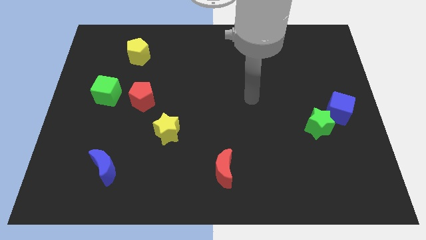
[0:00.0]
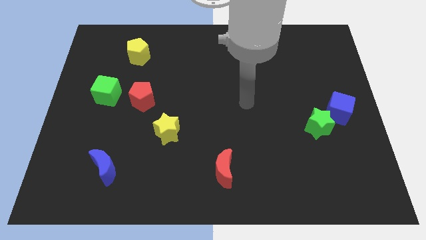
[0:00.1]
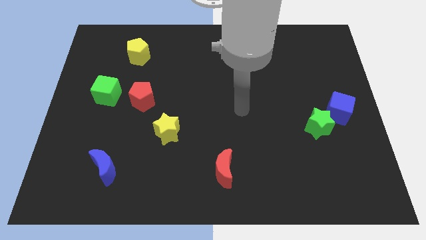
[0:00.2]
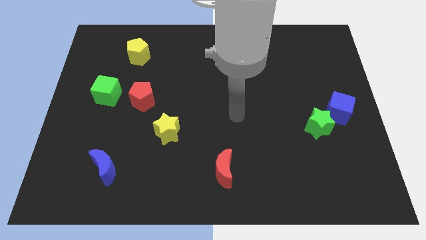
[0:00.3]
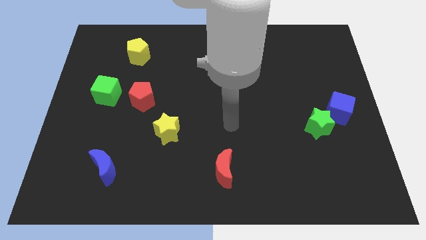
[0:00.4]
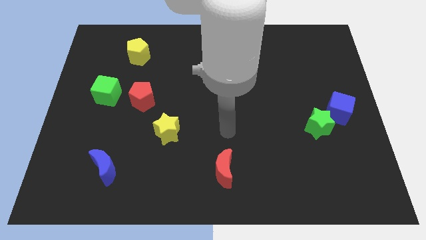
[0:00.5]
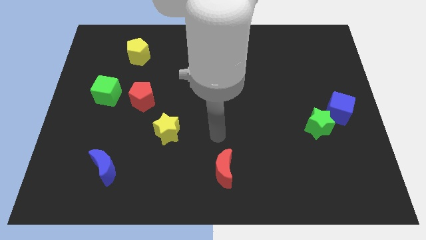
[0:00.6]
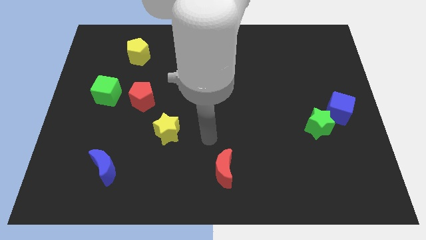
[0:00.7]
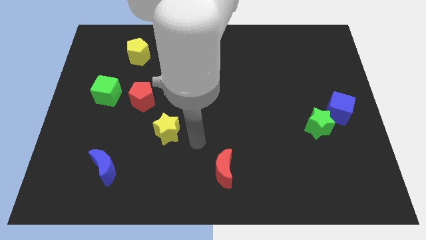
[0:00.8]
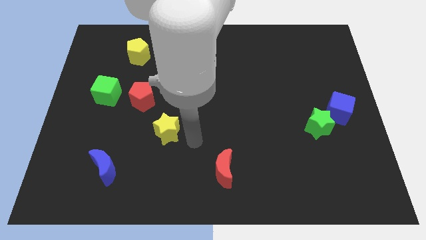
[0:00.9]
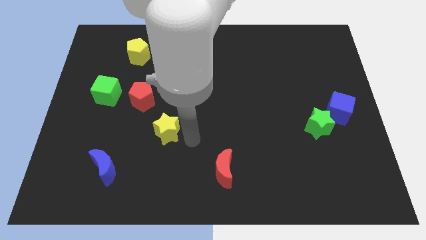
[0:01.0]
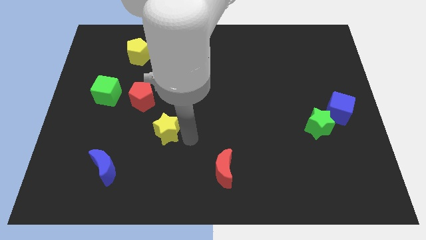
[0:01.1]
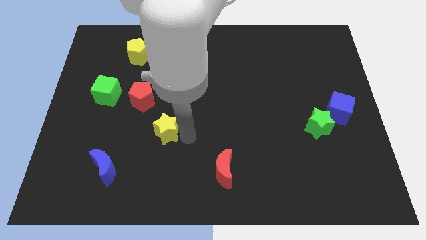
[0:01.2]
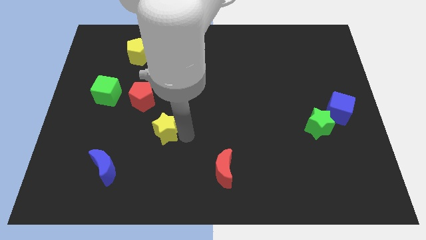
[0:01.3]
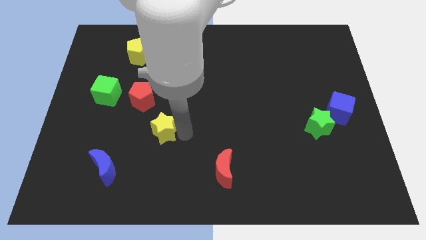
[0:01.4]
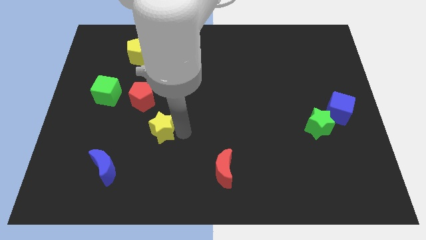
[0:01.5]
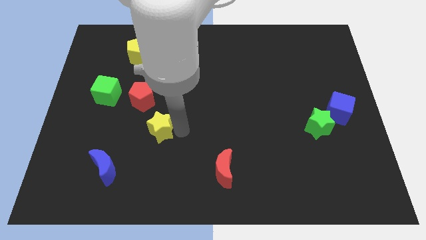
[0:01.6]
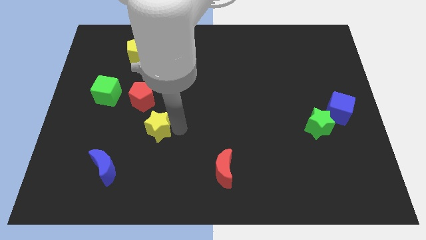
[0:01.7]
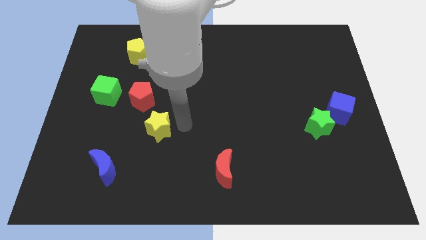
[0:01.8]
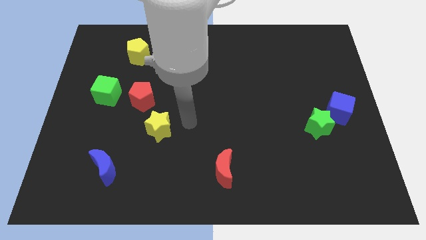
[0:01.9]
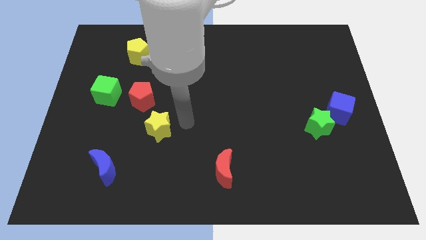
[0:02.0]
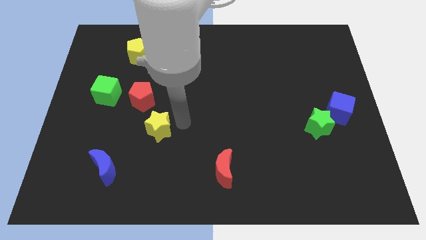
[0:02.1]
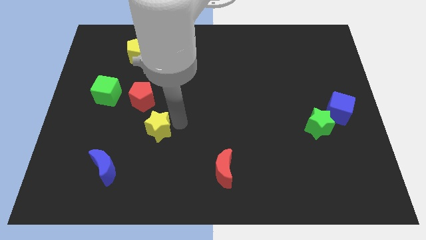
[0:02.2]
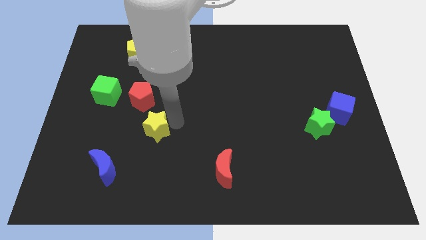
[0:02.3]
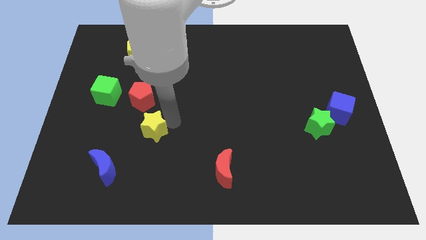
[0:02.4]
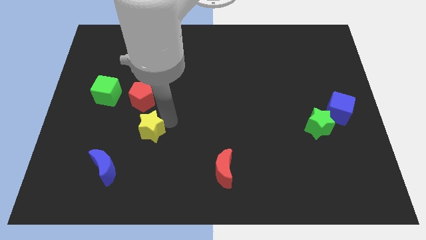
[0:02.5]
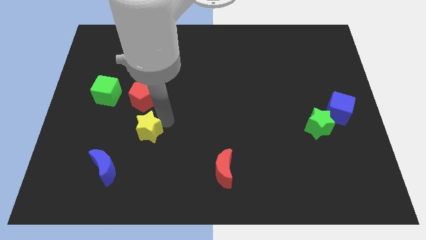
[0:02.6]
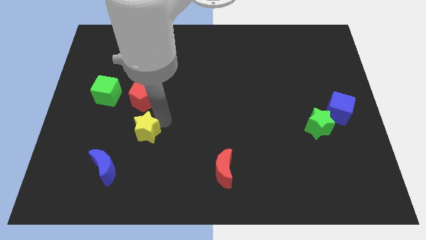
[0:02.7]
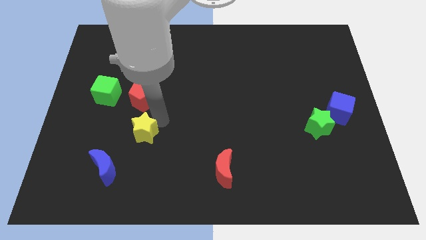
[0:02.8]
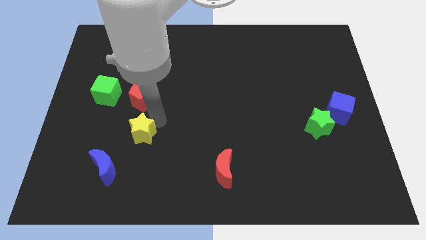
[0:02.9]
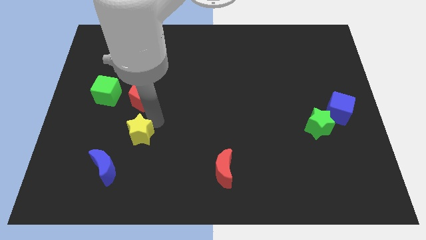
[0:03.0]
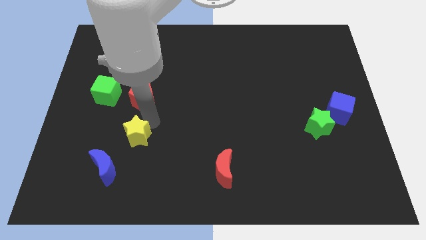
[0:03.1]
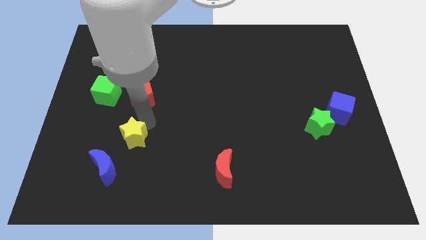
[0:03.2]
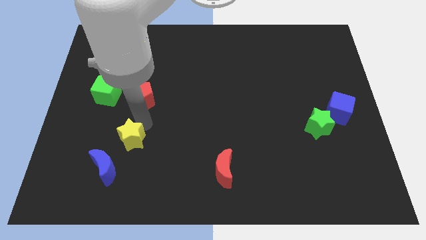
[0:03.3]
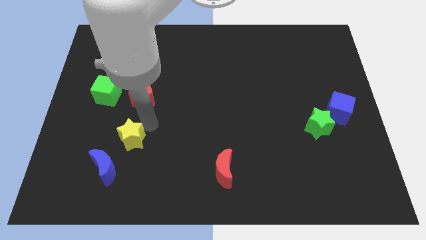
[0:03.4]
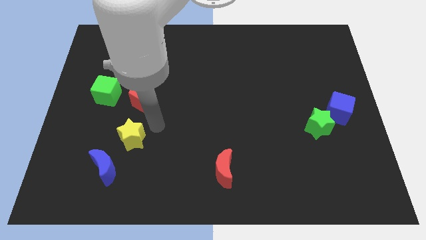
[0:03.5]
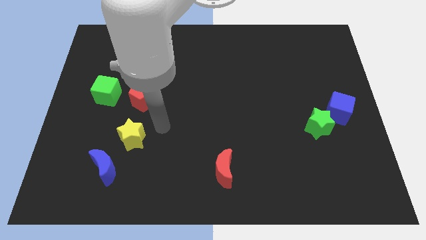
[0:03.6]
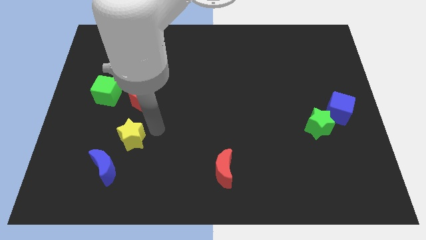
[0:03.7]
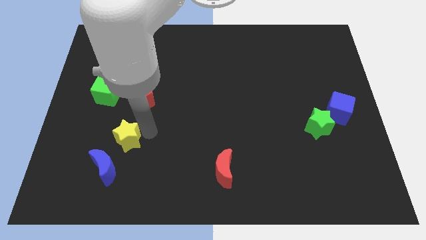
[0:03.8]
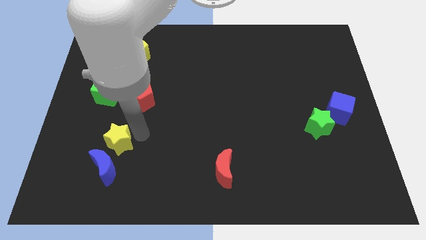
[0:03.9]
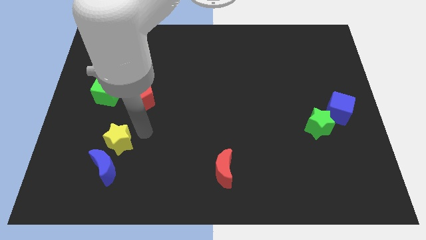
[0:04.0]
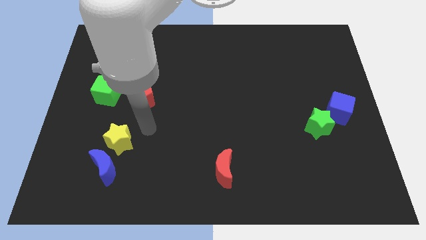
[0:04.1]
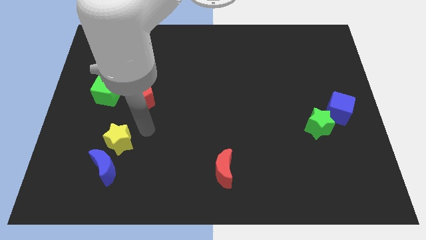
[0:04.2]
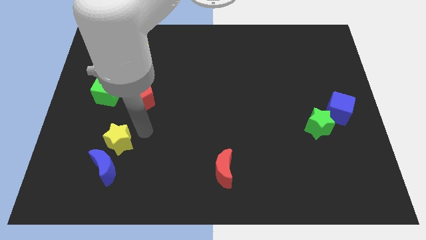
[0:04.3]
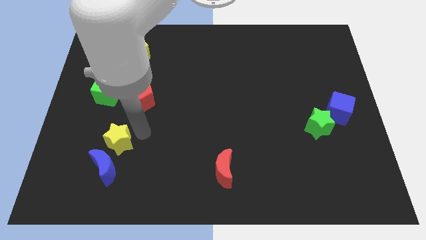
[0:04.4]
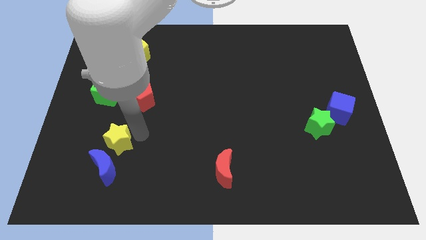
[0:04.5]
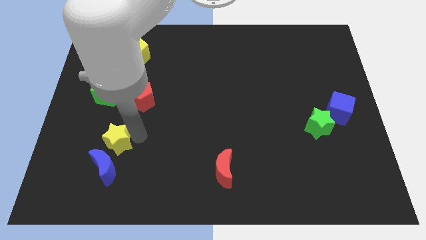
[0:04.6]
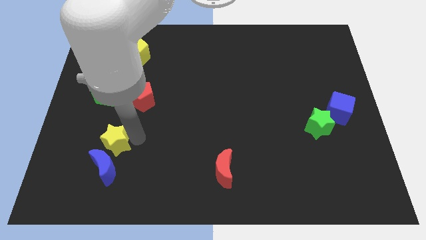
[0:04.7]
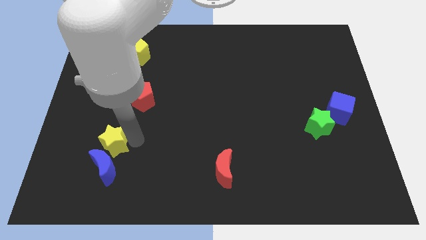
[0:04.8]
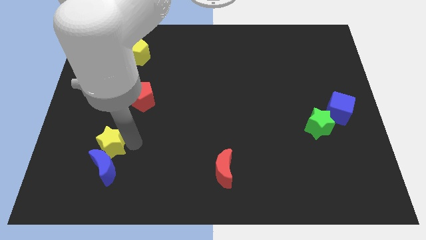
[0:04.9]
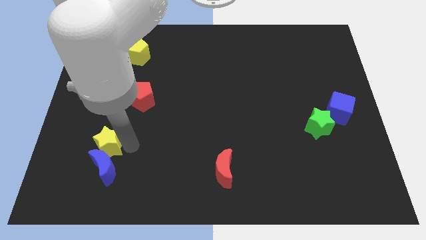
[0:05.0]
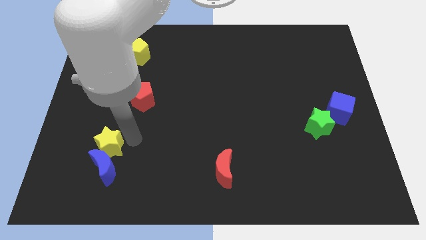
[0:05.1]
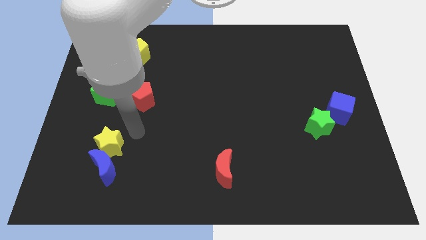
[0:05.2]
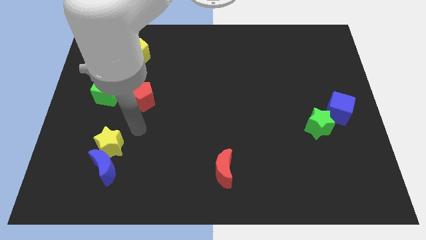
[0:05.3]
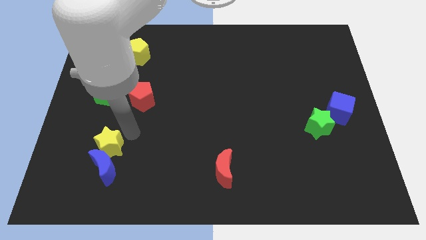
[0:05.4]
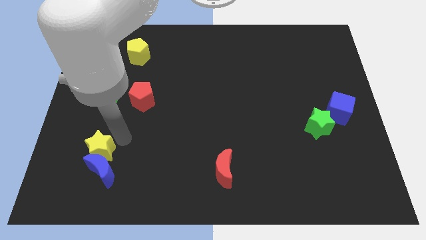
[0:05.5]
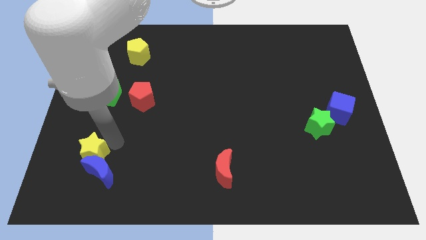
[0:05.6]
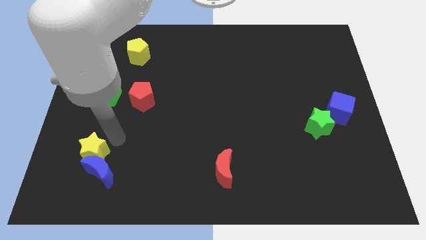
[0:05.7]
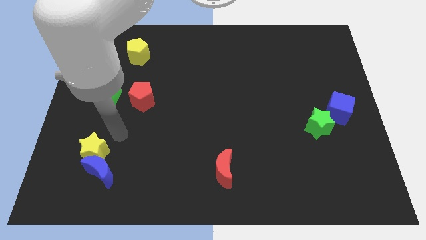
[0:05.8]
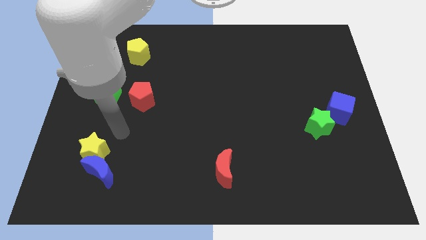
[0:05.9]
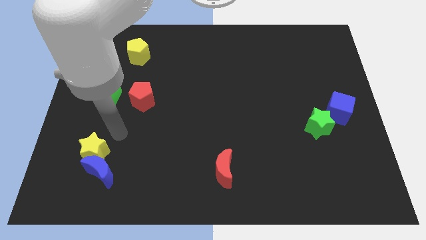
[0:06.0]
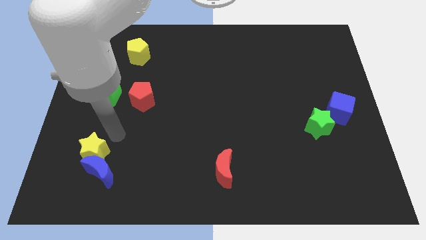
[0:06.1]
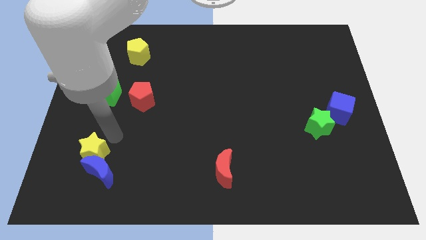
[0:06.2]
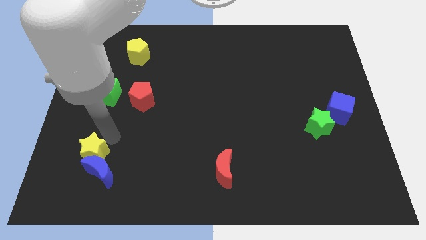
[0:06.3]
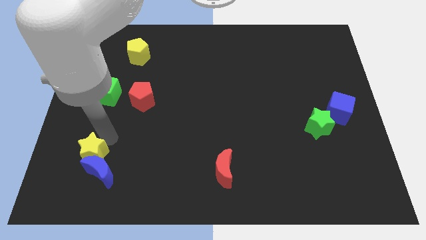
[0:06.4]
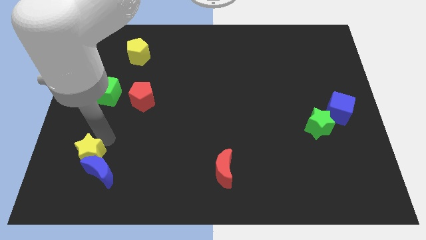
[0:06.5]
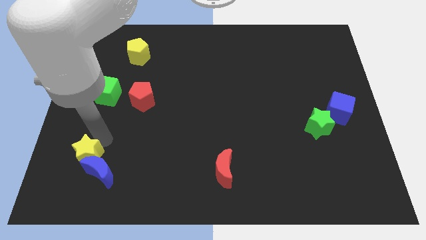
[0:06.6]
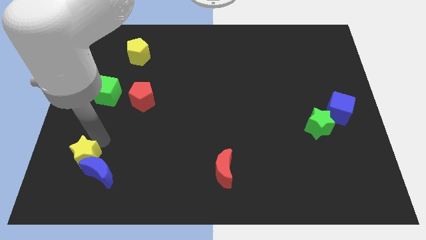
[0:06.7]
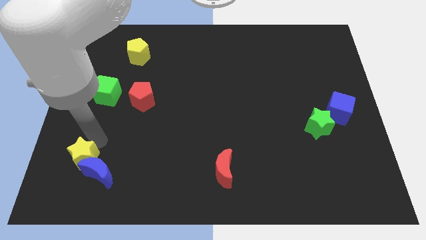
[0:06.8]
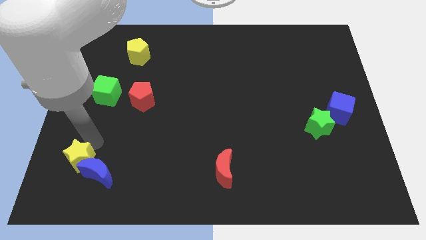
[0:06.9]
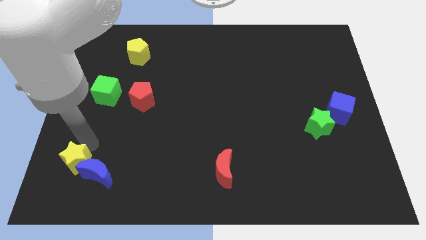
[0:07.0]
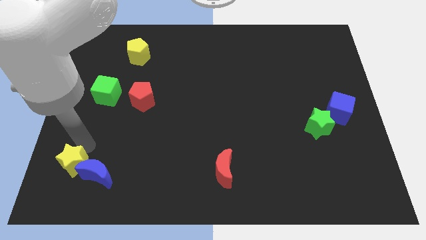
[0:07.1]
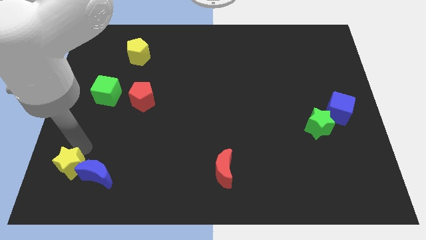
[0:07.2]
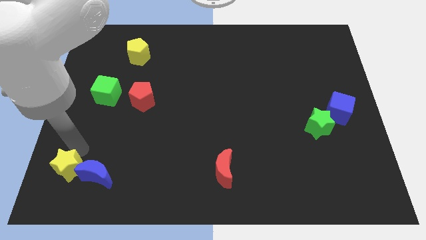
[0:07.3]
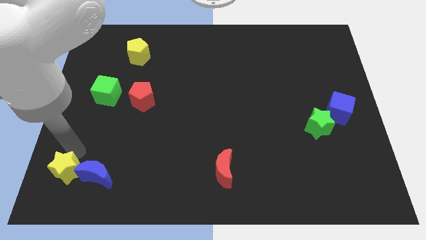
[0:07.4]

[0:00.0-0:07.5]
slide the yellow star to the bottom left
